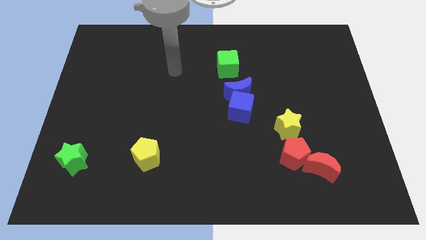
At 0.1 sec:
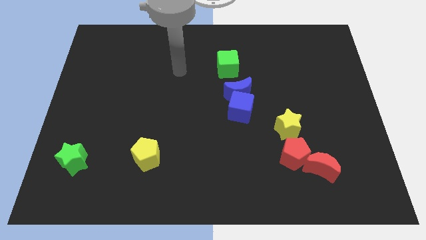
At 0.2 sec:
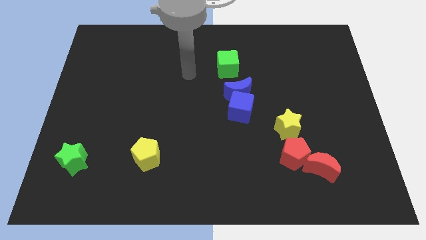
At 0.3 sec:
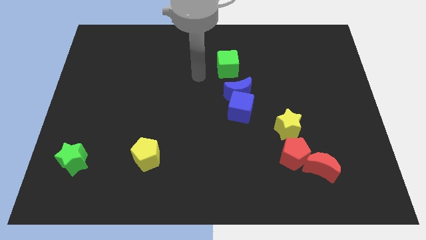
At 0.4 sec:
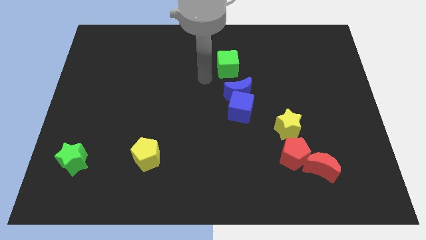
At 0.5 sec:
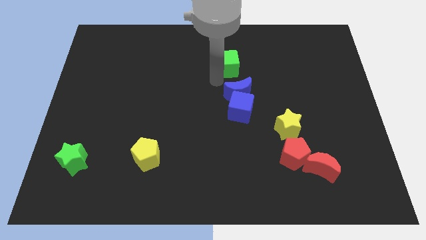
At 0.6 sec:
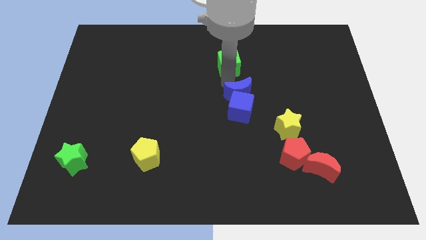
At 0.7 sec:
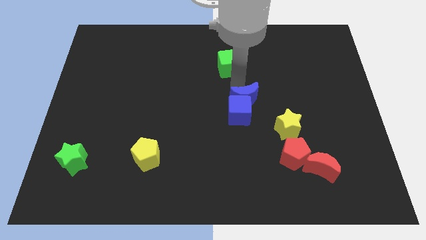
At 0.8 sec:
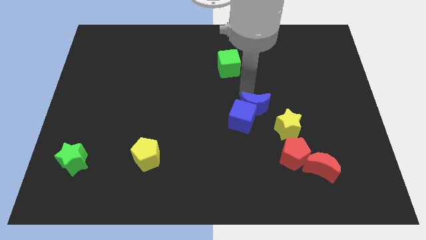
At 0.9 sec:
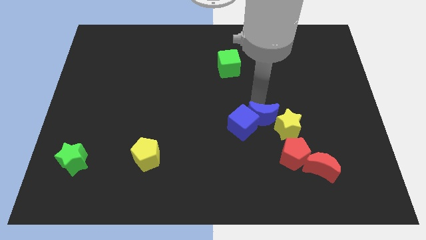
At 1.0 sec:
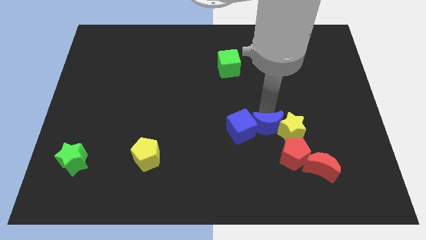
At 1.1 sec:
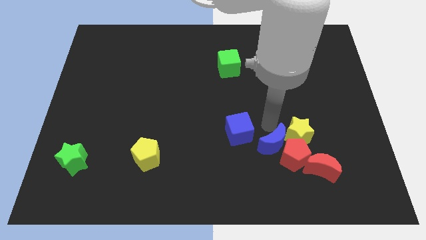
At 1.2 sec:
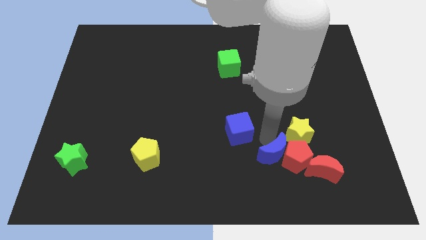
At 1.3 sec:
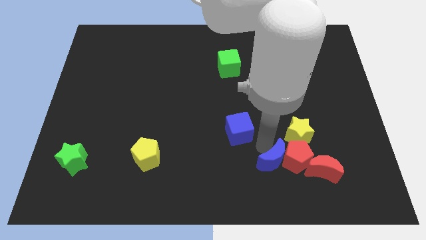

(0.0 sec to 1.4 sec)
separate the blue cube from the blue moon

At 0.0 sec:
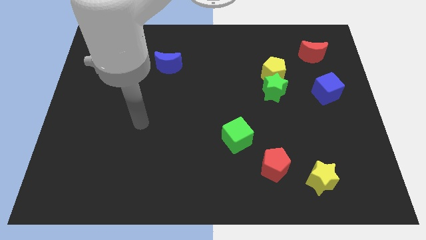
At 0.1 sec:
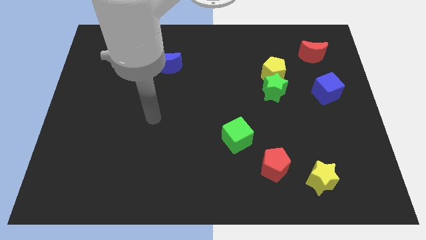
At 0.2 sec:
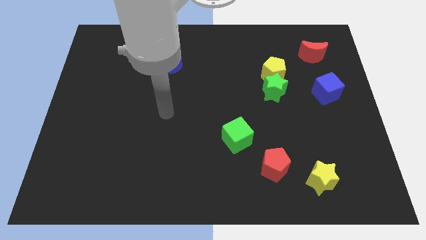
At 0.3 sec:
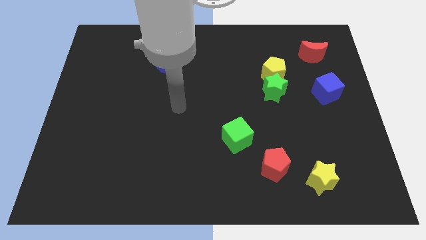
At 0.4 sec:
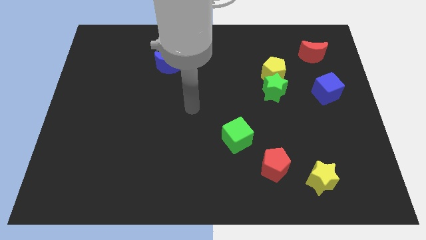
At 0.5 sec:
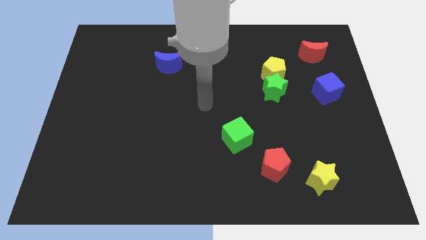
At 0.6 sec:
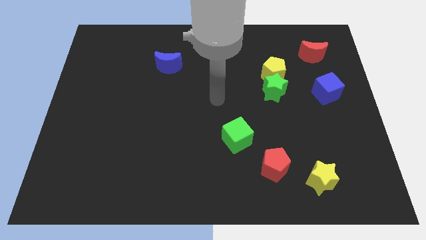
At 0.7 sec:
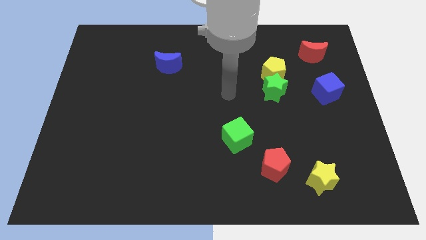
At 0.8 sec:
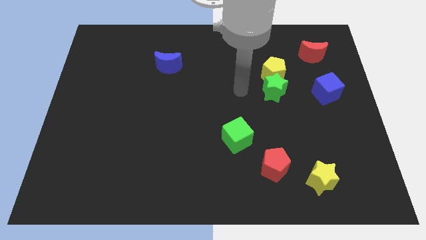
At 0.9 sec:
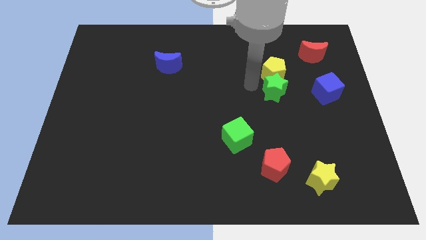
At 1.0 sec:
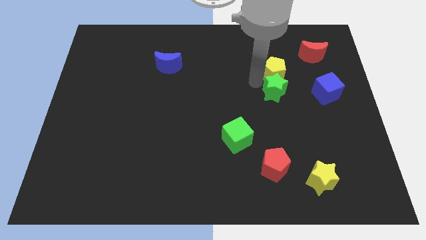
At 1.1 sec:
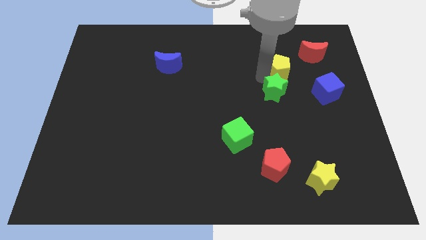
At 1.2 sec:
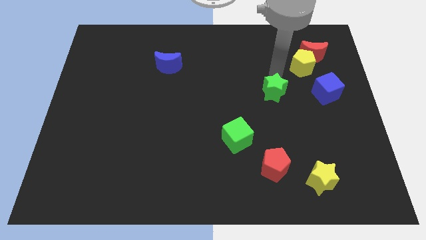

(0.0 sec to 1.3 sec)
separate the green star from the yellow pentagon

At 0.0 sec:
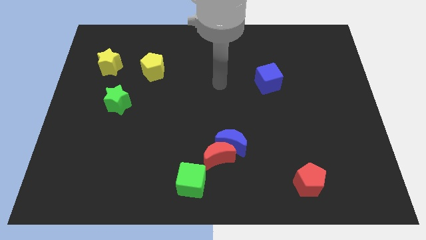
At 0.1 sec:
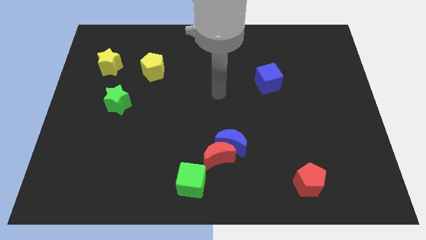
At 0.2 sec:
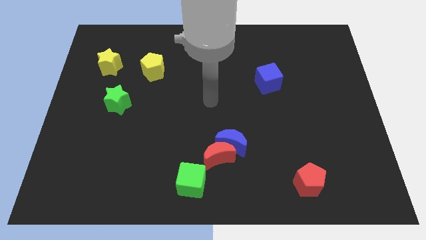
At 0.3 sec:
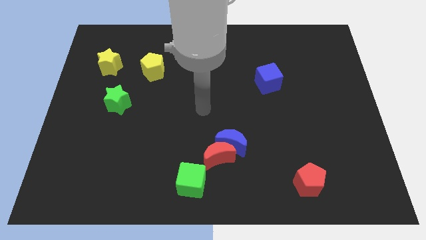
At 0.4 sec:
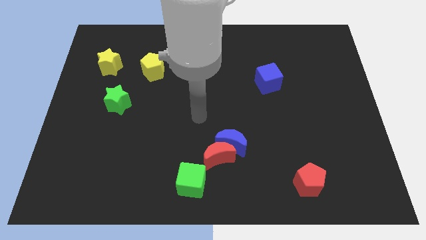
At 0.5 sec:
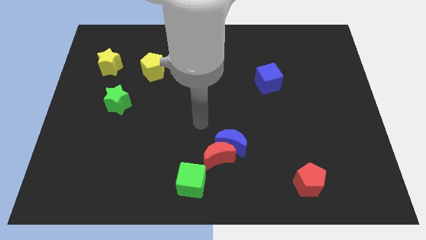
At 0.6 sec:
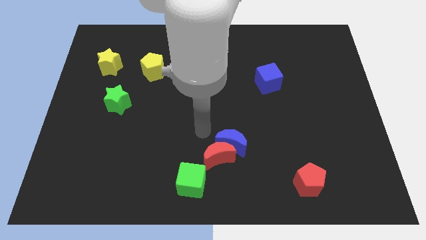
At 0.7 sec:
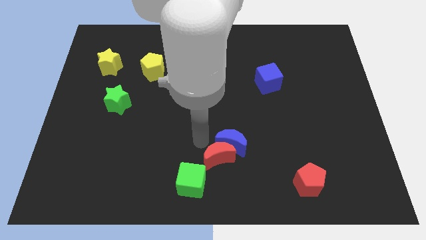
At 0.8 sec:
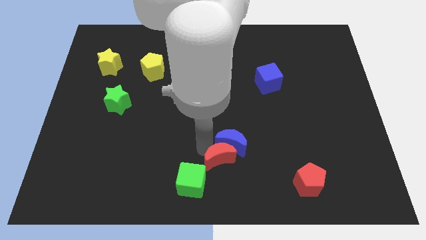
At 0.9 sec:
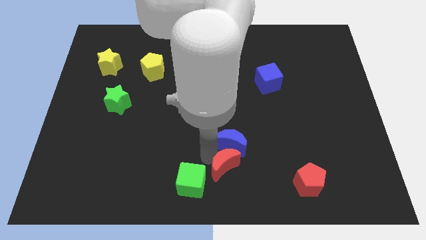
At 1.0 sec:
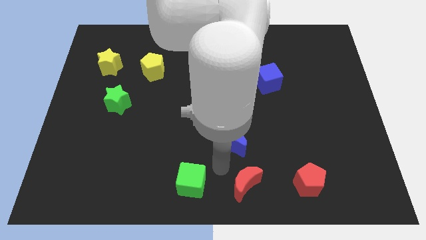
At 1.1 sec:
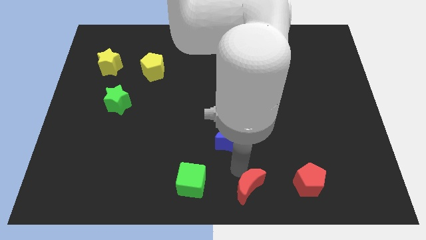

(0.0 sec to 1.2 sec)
separate the blue moon from the red moon

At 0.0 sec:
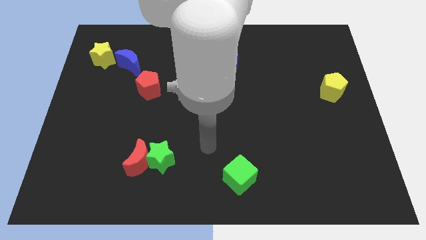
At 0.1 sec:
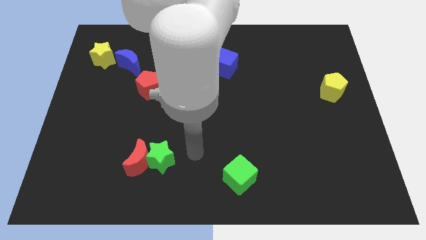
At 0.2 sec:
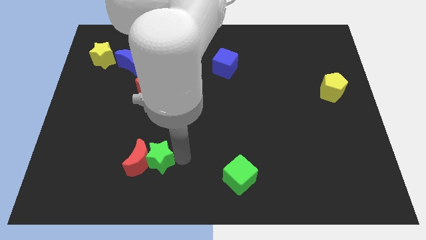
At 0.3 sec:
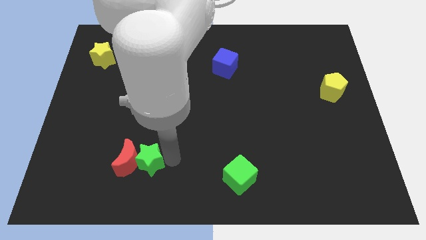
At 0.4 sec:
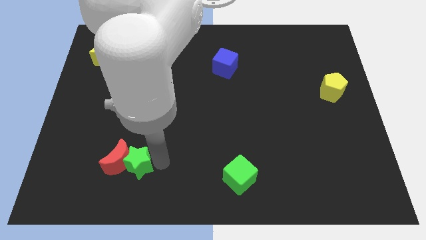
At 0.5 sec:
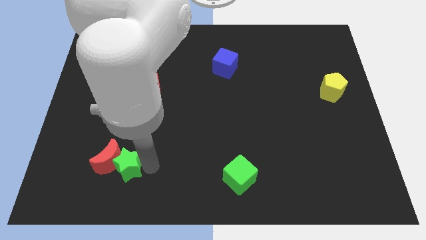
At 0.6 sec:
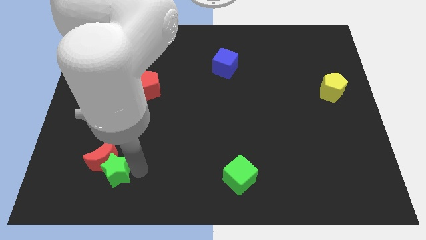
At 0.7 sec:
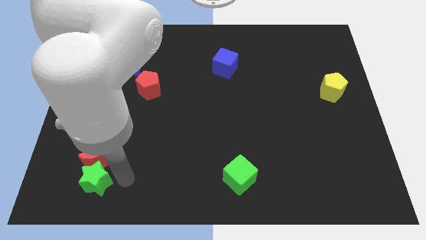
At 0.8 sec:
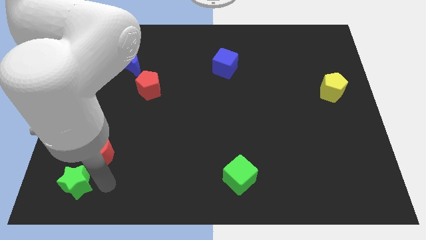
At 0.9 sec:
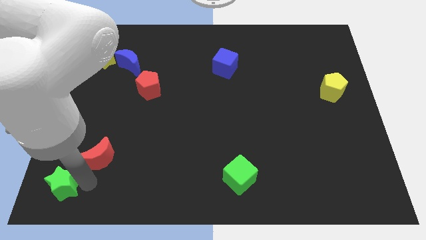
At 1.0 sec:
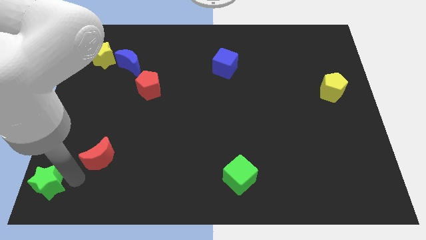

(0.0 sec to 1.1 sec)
separate the red moon from the green star

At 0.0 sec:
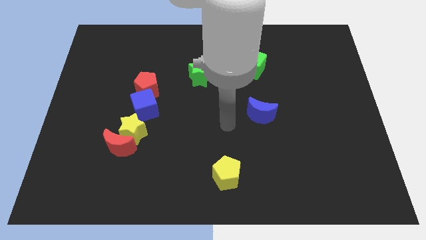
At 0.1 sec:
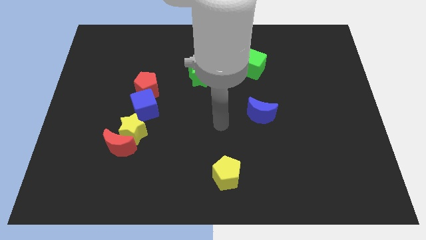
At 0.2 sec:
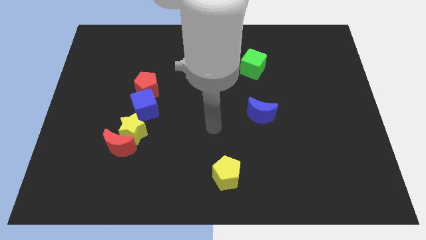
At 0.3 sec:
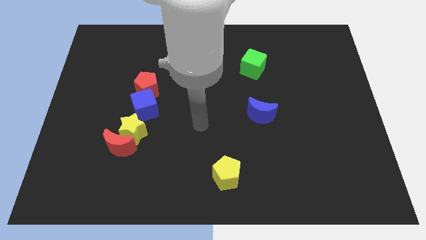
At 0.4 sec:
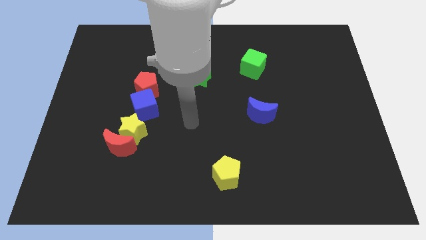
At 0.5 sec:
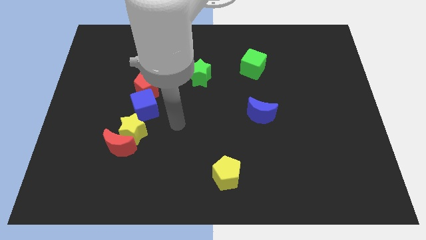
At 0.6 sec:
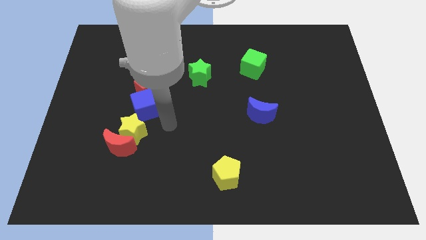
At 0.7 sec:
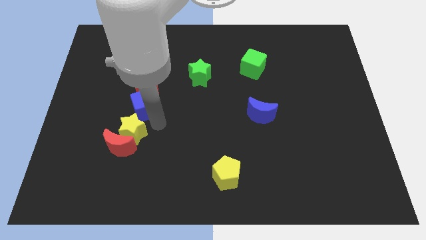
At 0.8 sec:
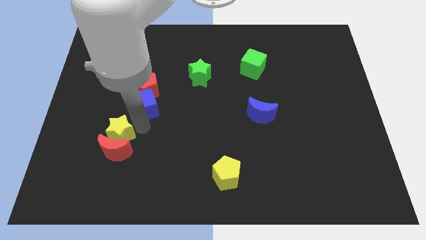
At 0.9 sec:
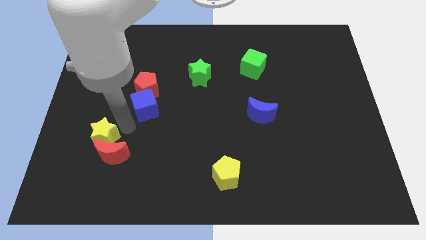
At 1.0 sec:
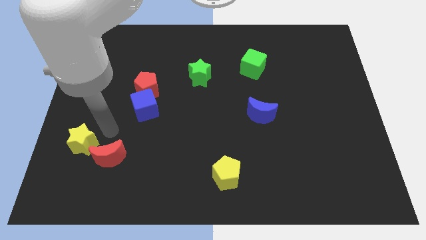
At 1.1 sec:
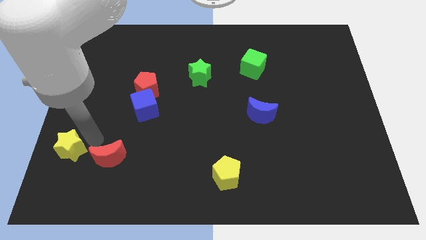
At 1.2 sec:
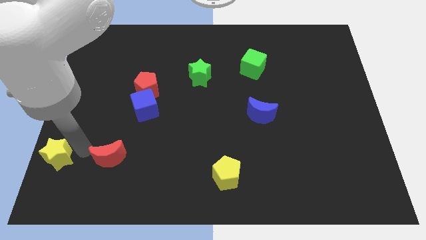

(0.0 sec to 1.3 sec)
separate the red moon from the yellow star

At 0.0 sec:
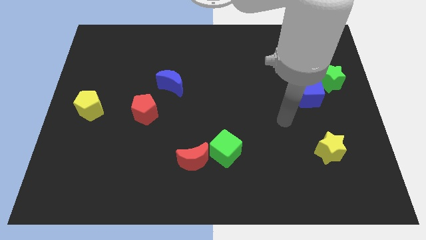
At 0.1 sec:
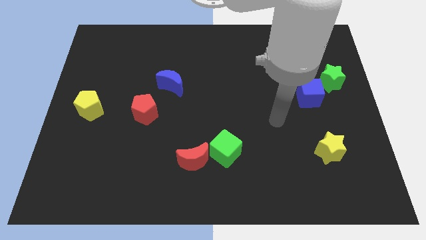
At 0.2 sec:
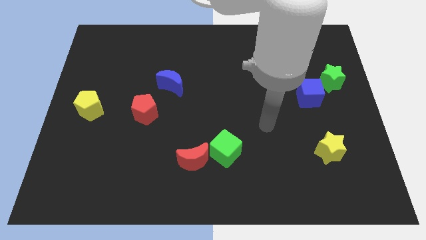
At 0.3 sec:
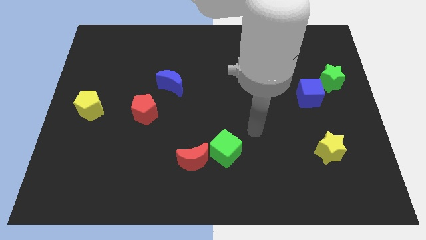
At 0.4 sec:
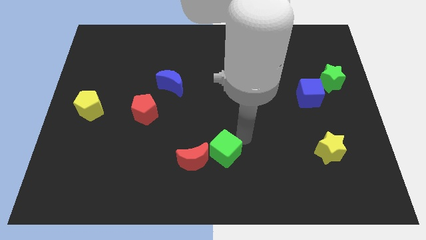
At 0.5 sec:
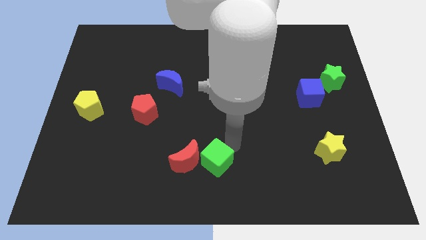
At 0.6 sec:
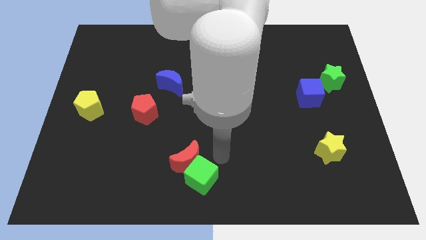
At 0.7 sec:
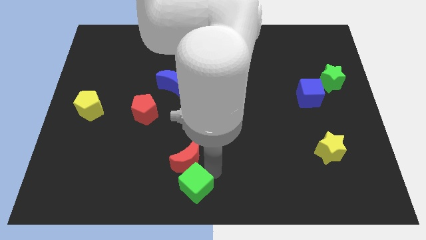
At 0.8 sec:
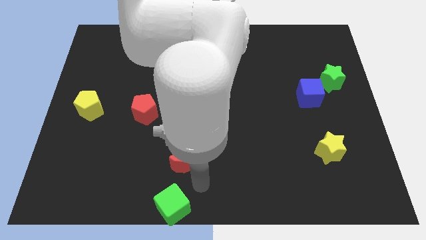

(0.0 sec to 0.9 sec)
separate the red moon from the green cube

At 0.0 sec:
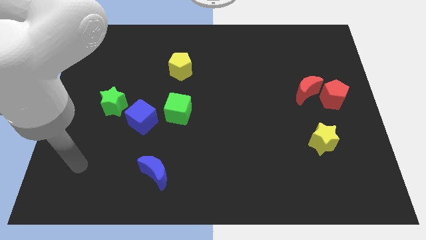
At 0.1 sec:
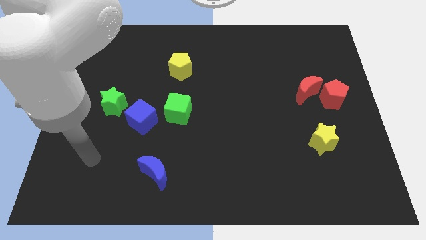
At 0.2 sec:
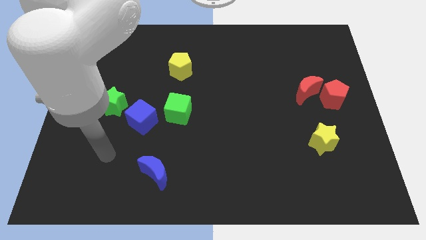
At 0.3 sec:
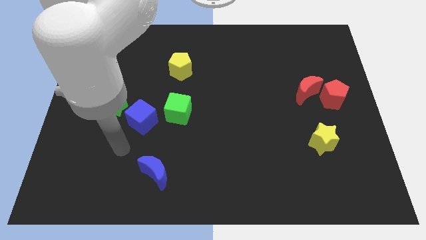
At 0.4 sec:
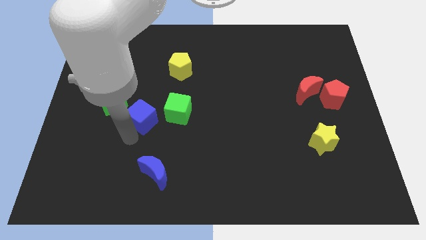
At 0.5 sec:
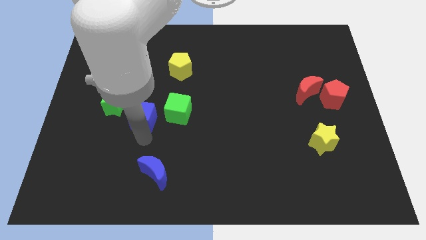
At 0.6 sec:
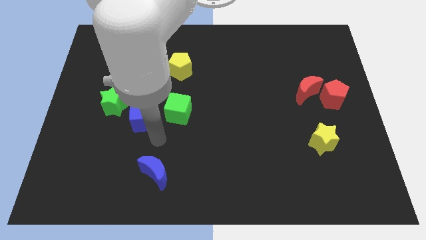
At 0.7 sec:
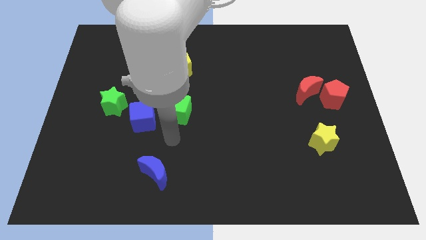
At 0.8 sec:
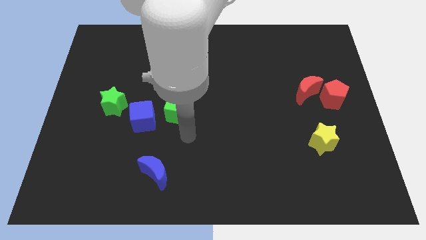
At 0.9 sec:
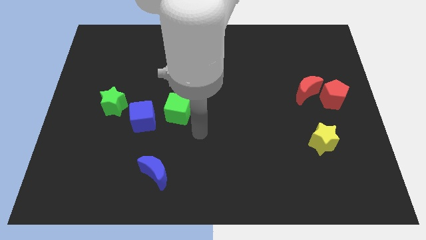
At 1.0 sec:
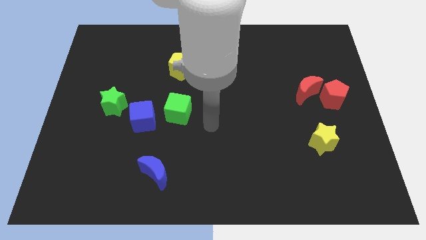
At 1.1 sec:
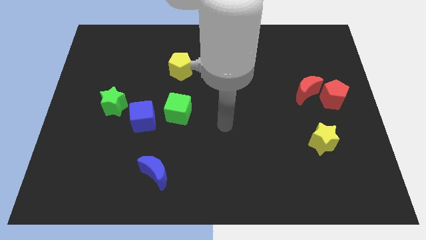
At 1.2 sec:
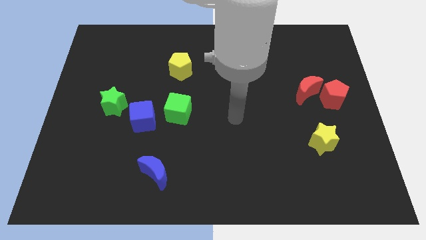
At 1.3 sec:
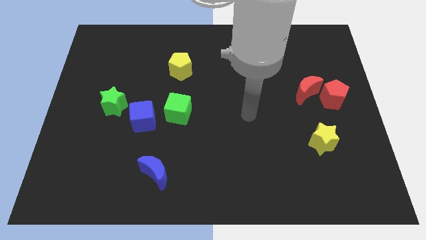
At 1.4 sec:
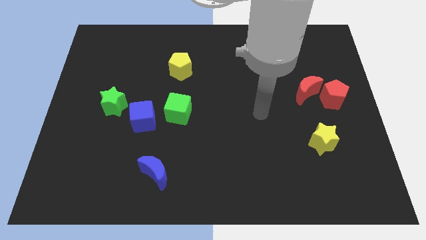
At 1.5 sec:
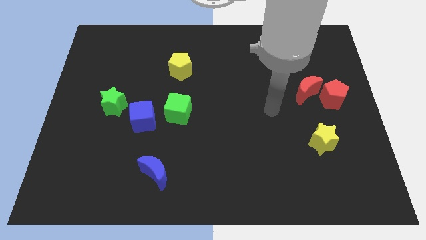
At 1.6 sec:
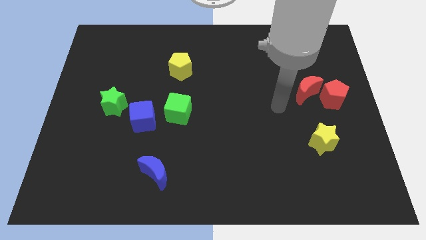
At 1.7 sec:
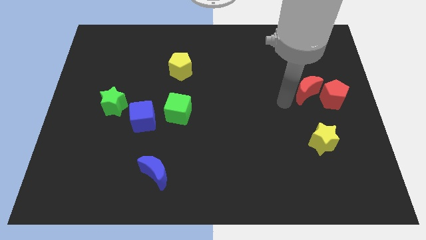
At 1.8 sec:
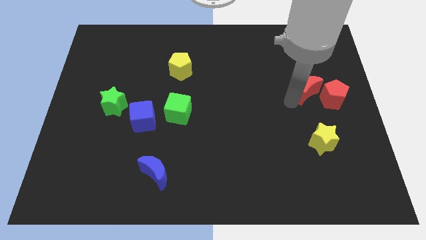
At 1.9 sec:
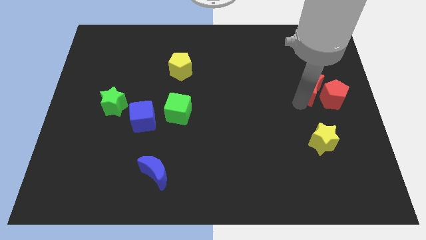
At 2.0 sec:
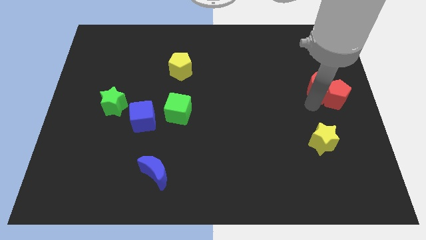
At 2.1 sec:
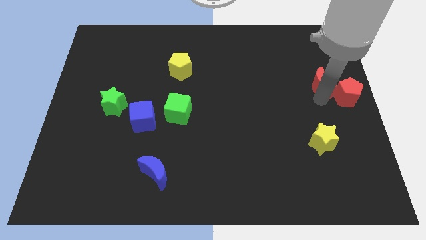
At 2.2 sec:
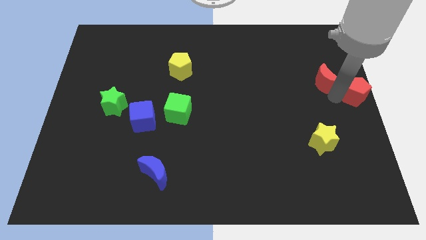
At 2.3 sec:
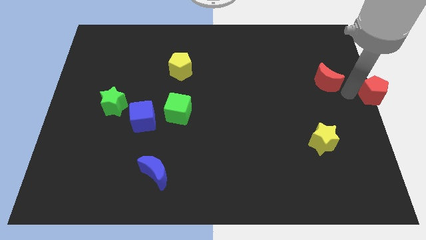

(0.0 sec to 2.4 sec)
move the red moon away from the red pentagon
